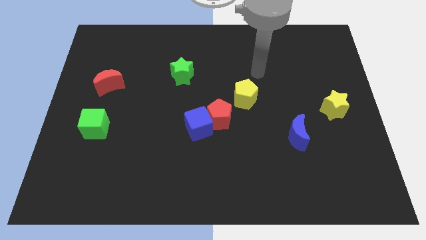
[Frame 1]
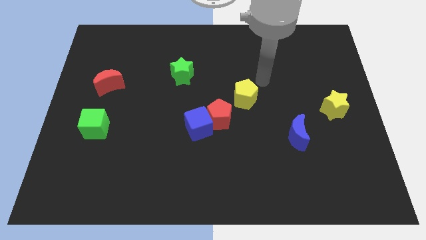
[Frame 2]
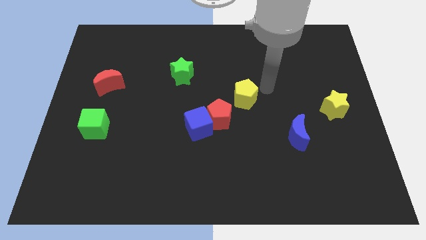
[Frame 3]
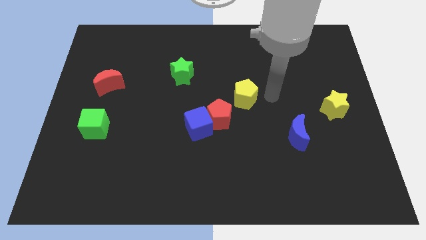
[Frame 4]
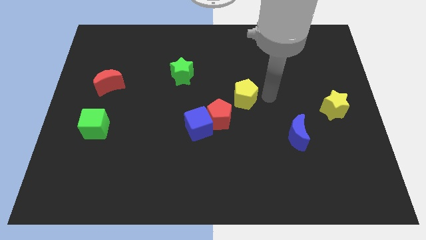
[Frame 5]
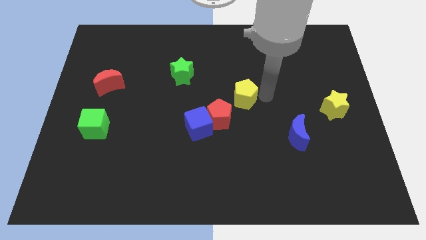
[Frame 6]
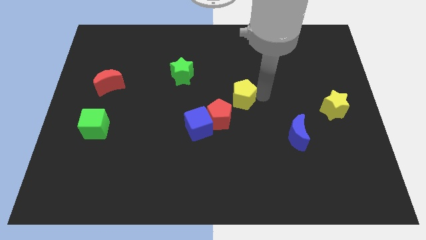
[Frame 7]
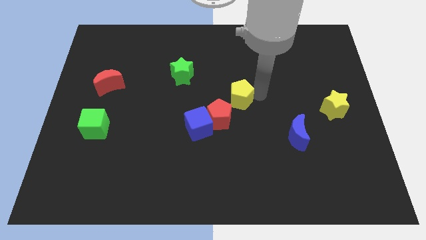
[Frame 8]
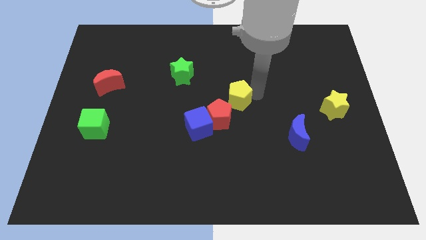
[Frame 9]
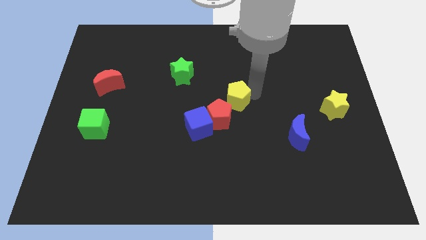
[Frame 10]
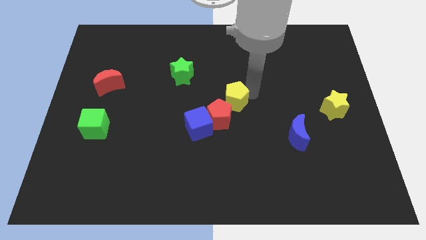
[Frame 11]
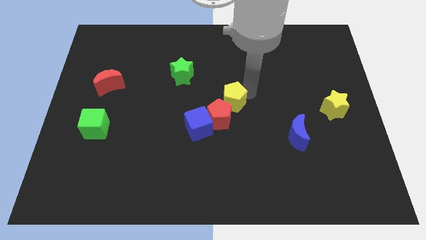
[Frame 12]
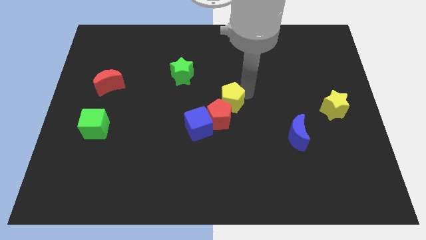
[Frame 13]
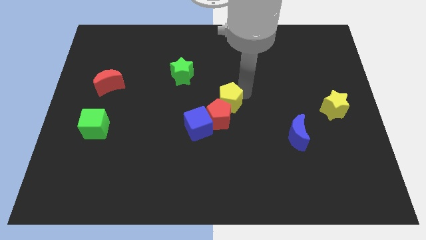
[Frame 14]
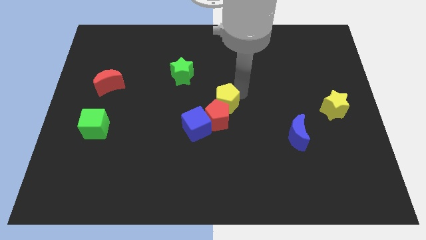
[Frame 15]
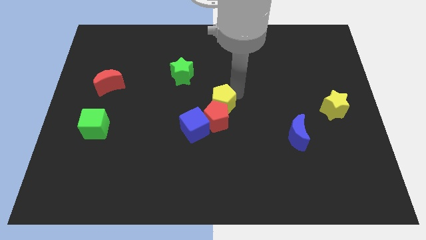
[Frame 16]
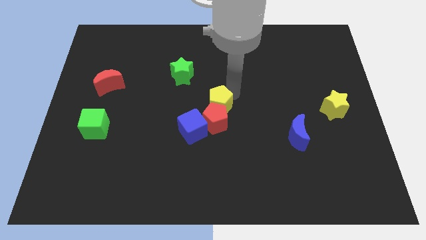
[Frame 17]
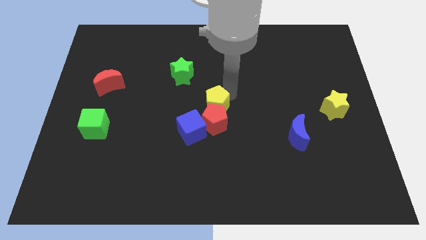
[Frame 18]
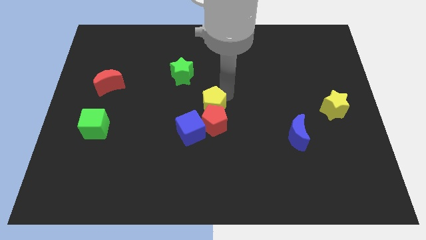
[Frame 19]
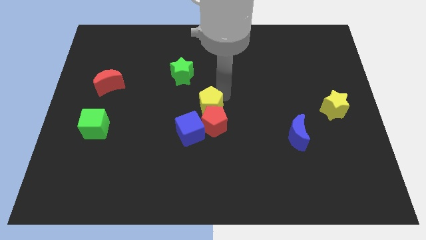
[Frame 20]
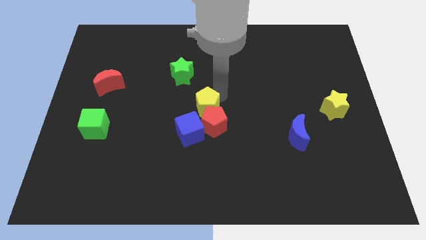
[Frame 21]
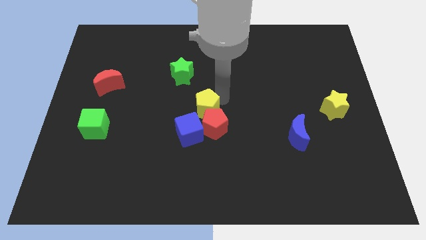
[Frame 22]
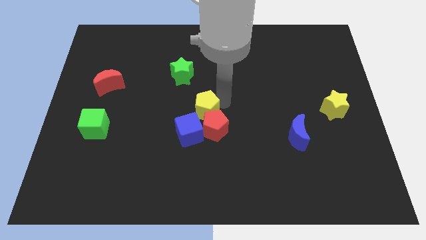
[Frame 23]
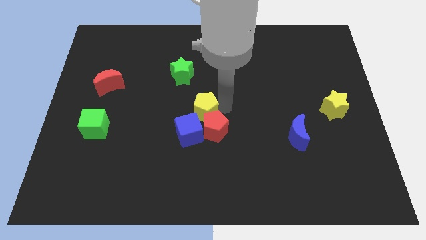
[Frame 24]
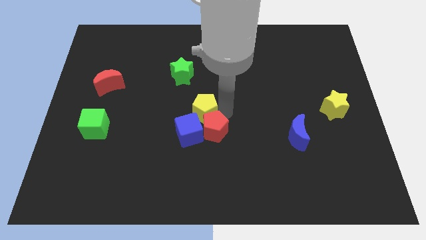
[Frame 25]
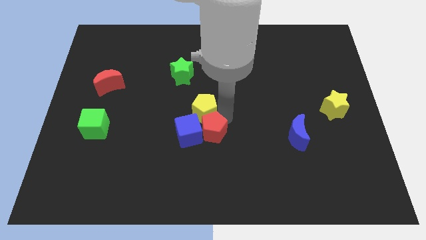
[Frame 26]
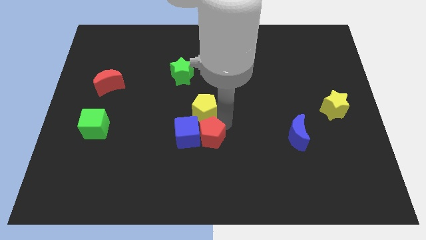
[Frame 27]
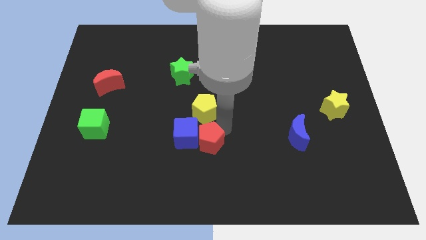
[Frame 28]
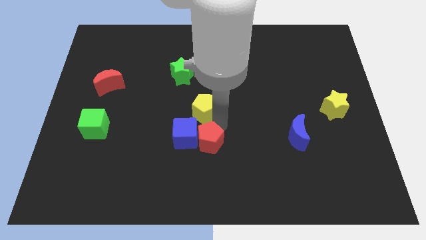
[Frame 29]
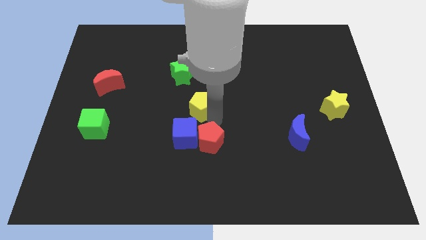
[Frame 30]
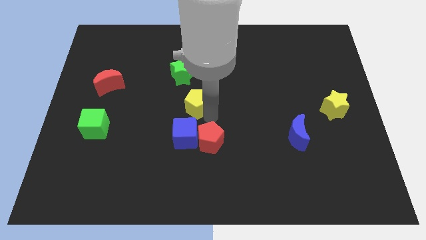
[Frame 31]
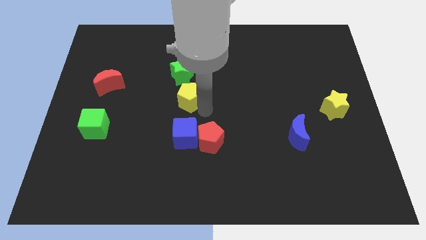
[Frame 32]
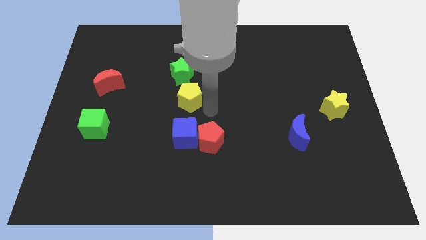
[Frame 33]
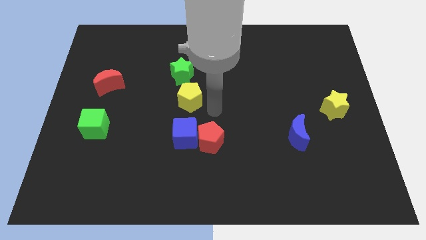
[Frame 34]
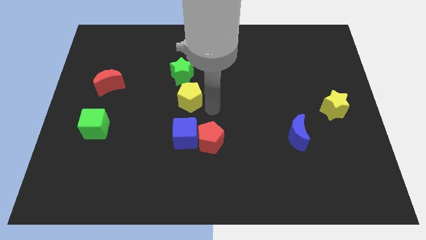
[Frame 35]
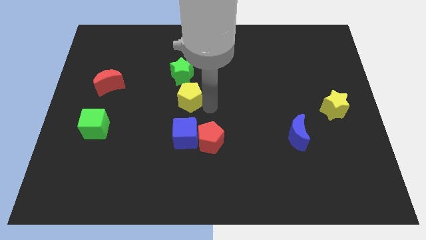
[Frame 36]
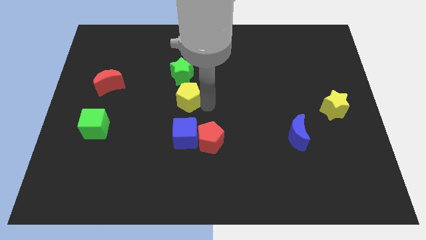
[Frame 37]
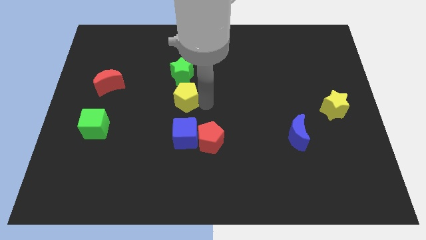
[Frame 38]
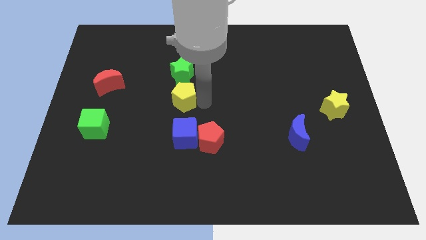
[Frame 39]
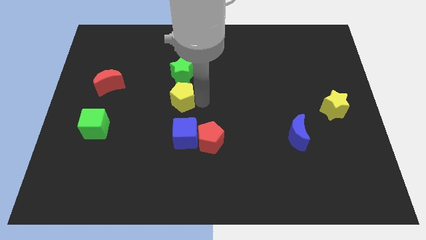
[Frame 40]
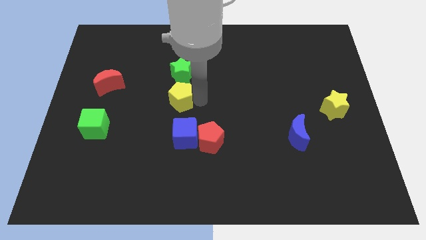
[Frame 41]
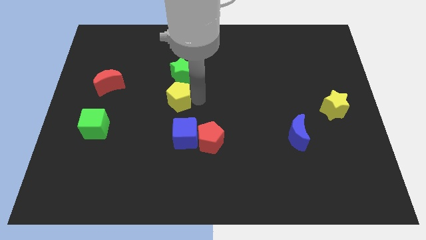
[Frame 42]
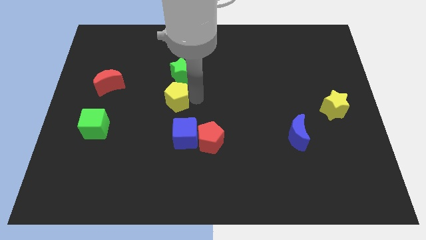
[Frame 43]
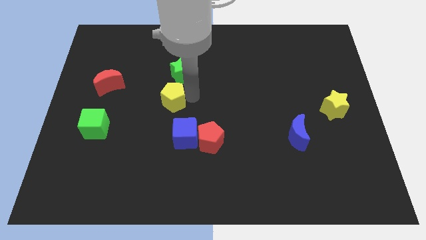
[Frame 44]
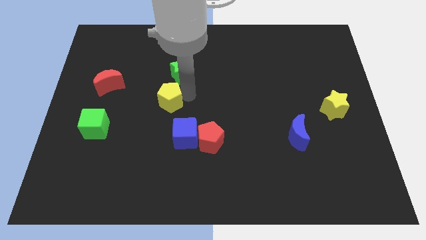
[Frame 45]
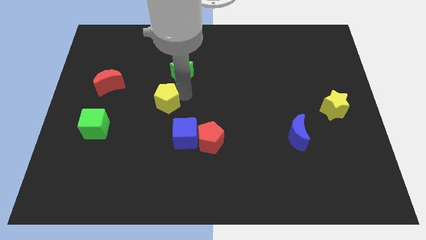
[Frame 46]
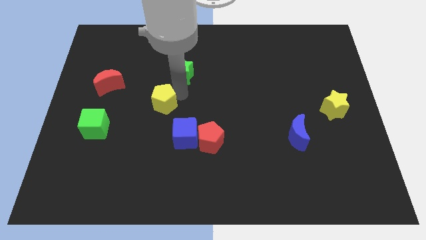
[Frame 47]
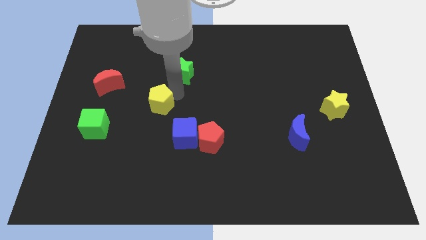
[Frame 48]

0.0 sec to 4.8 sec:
slide the yellow pentagon to the left

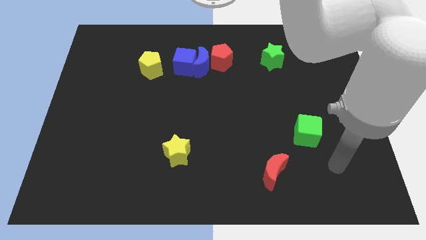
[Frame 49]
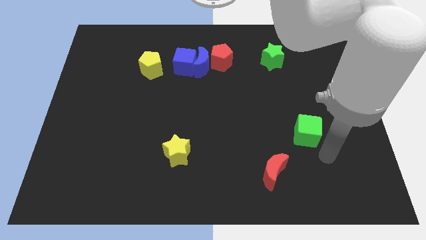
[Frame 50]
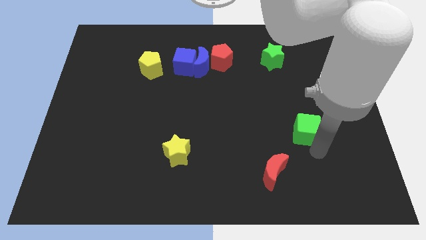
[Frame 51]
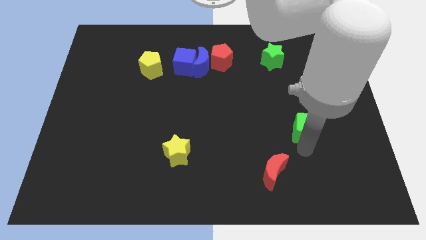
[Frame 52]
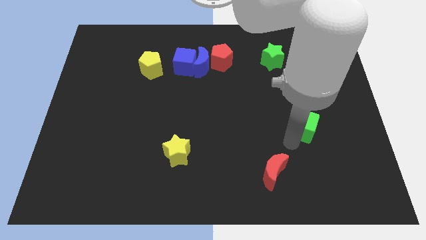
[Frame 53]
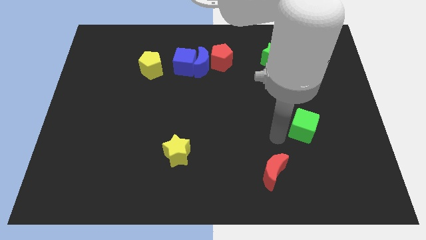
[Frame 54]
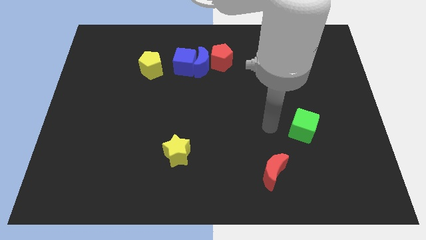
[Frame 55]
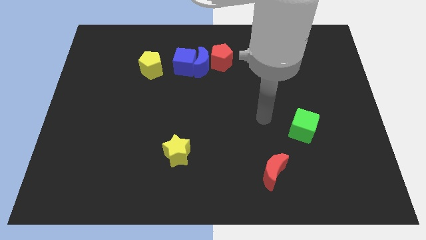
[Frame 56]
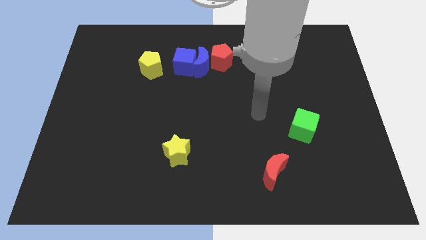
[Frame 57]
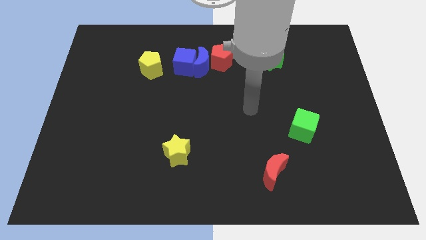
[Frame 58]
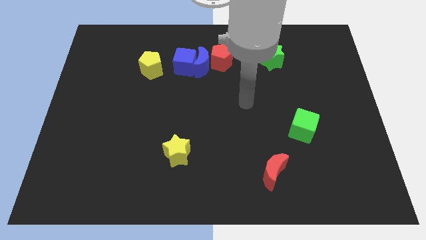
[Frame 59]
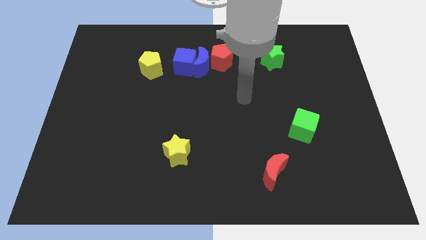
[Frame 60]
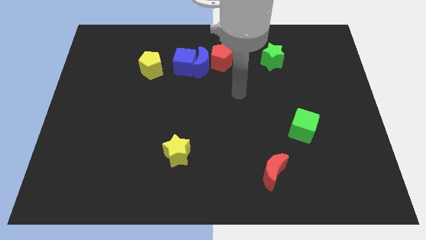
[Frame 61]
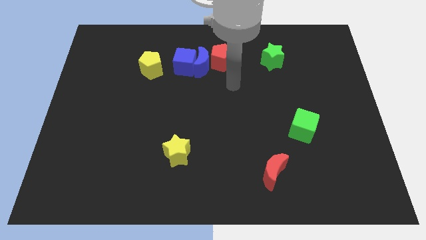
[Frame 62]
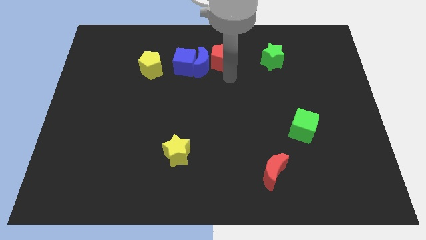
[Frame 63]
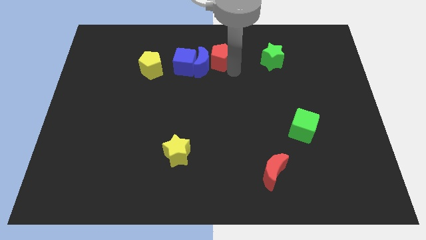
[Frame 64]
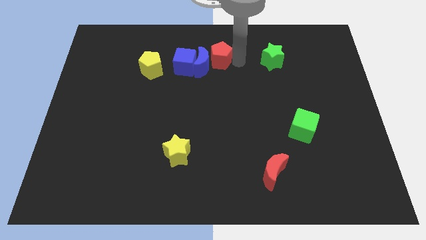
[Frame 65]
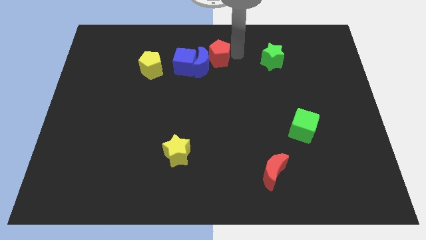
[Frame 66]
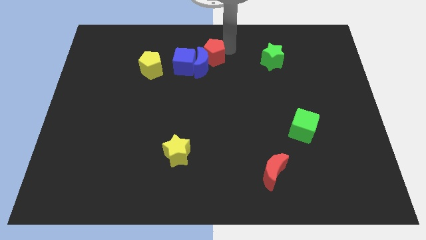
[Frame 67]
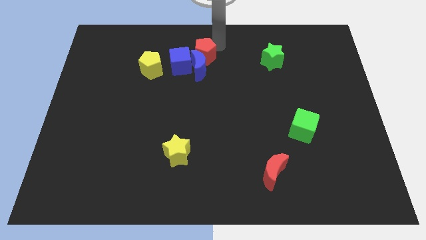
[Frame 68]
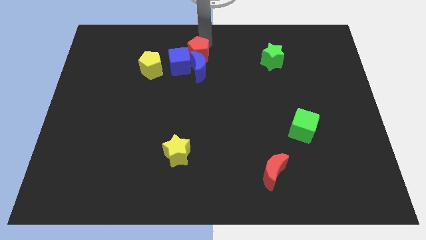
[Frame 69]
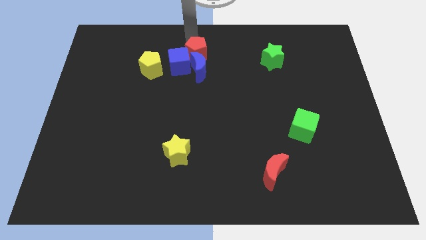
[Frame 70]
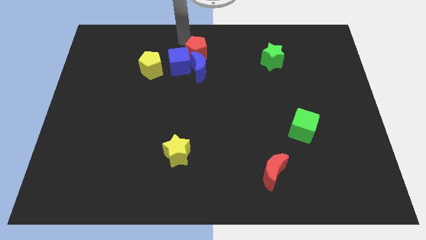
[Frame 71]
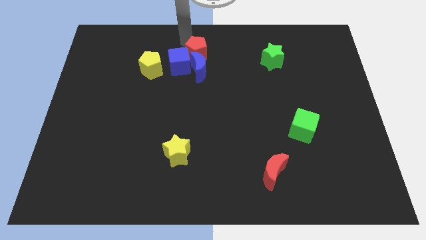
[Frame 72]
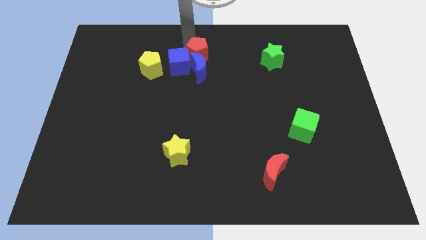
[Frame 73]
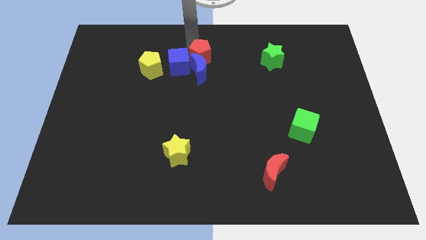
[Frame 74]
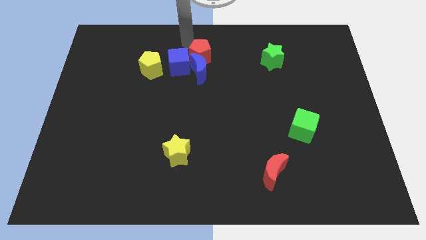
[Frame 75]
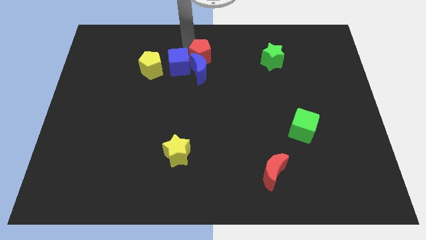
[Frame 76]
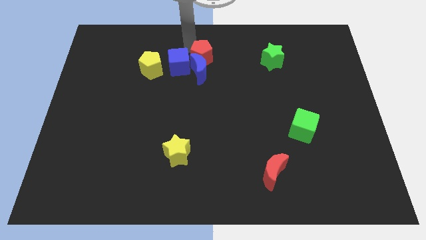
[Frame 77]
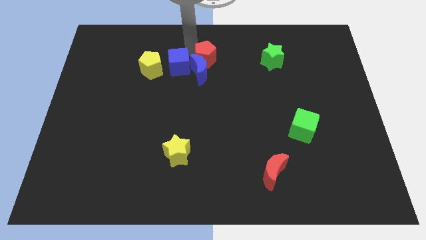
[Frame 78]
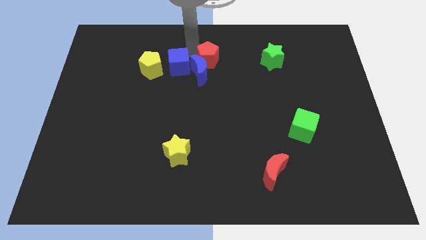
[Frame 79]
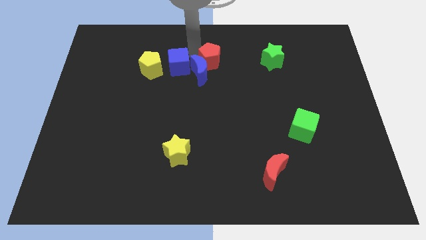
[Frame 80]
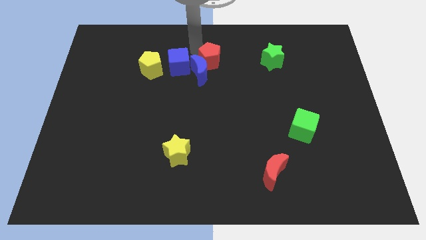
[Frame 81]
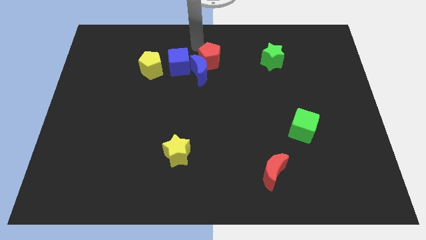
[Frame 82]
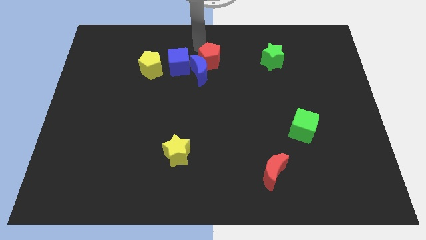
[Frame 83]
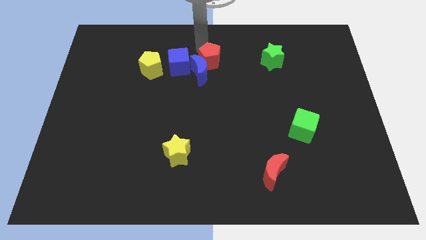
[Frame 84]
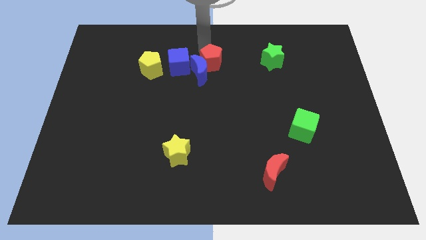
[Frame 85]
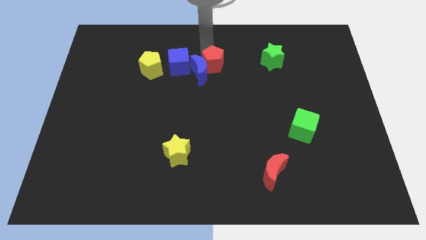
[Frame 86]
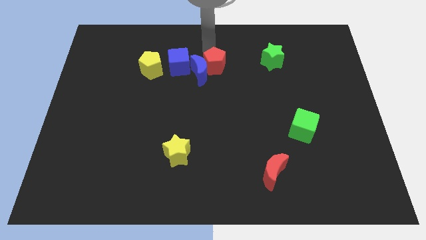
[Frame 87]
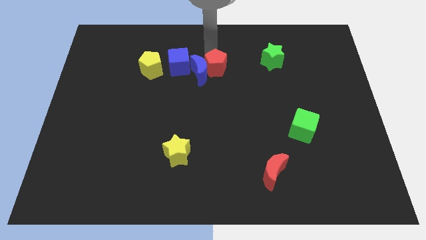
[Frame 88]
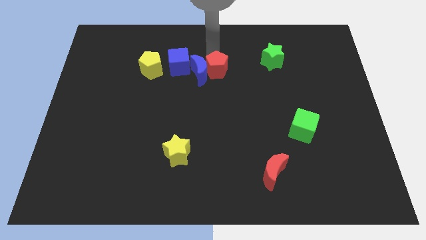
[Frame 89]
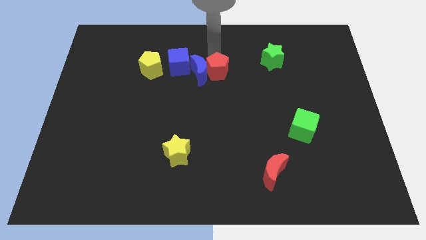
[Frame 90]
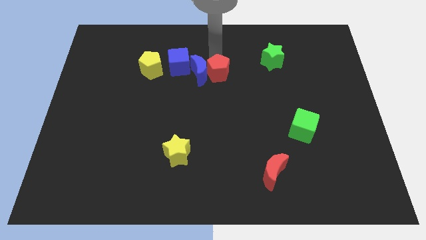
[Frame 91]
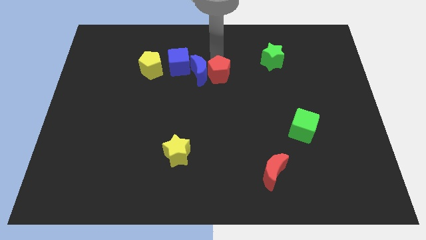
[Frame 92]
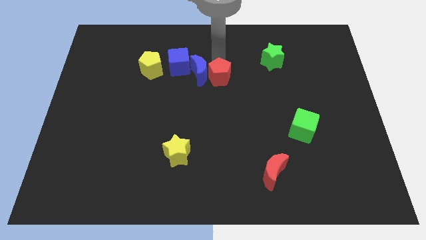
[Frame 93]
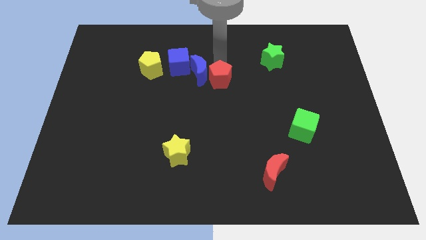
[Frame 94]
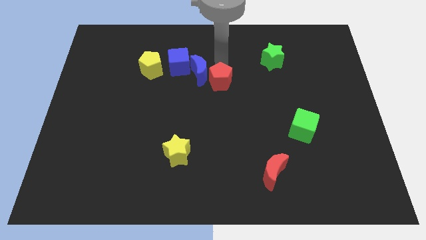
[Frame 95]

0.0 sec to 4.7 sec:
push the red pentagon a bit downwards
